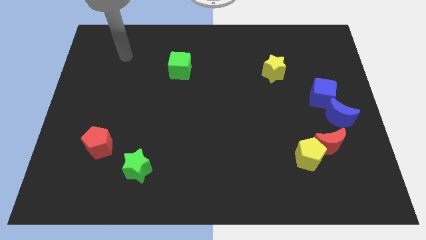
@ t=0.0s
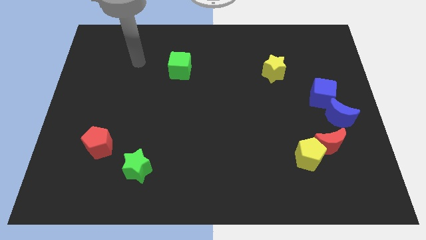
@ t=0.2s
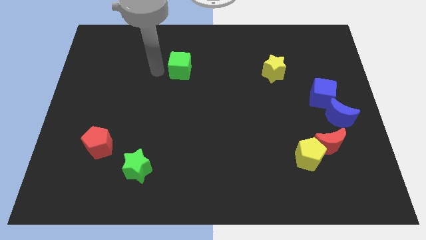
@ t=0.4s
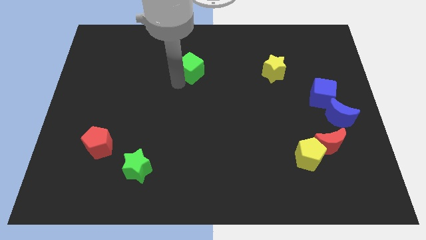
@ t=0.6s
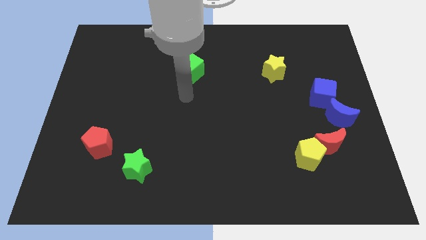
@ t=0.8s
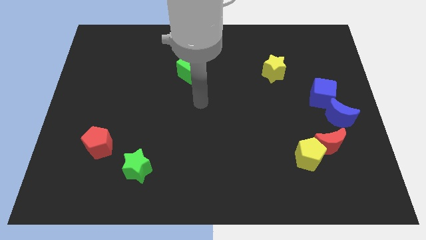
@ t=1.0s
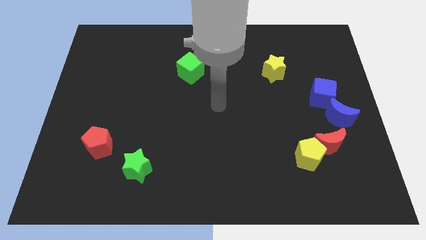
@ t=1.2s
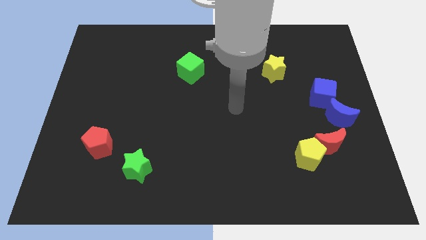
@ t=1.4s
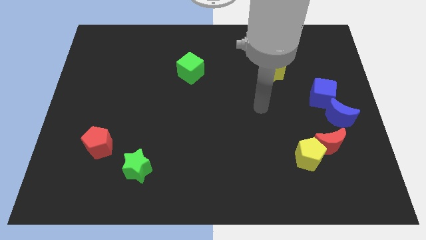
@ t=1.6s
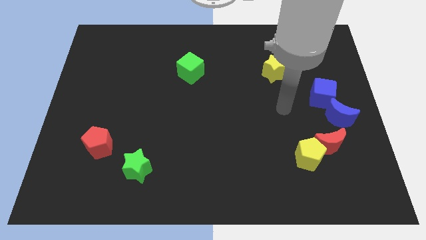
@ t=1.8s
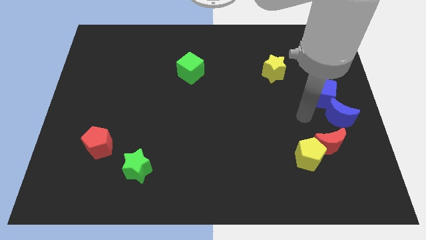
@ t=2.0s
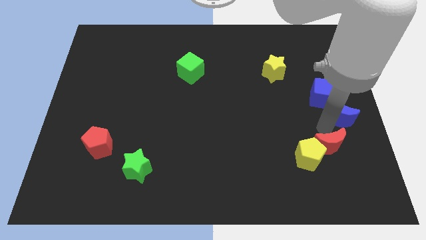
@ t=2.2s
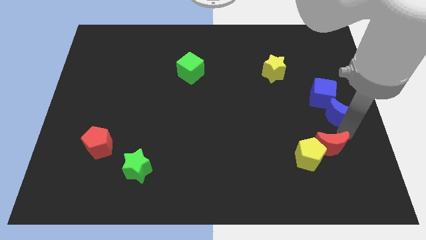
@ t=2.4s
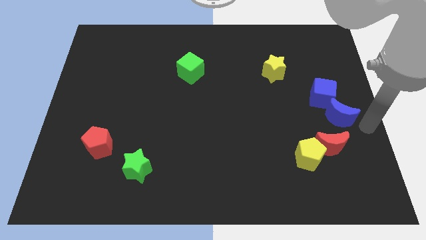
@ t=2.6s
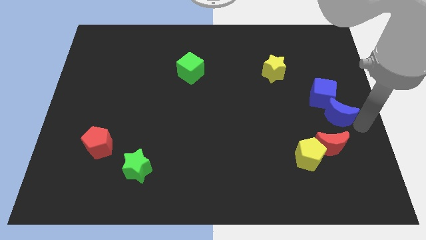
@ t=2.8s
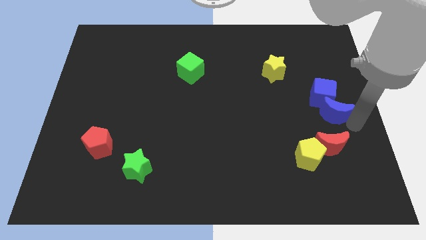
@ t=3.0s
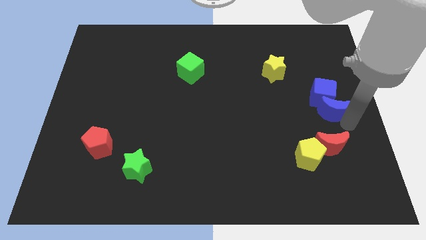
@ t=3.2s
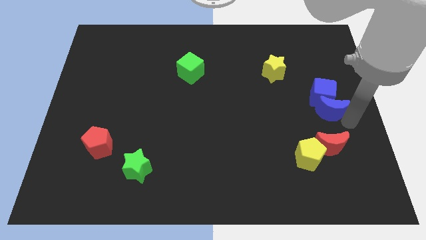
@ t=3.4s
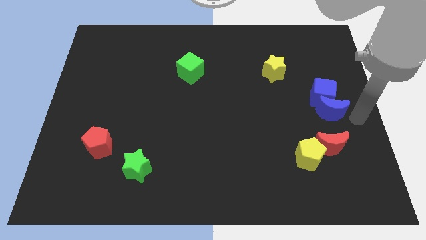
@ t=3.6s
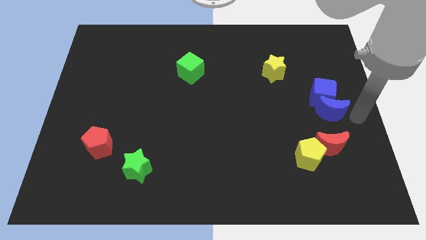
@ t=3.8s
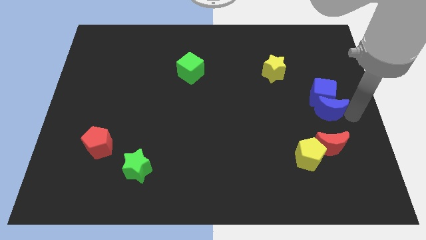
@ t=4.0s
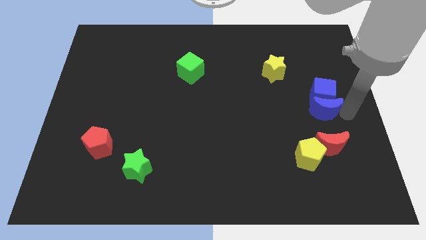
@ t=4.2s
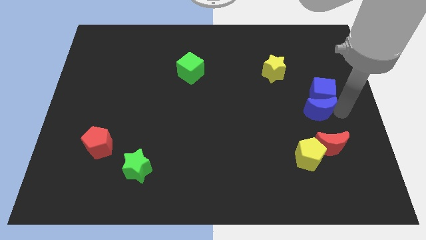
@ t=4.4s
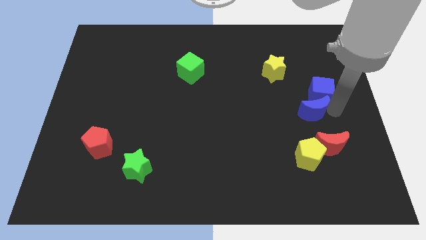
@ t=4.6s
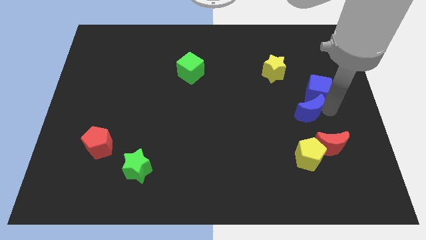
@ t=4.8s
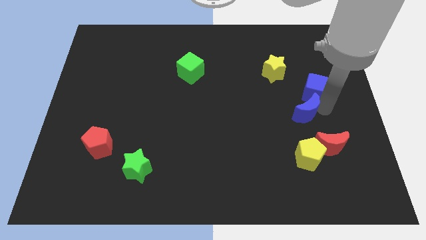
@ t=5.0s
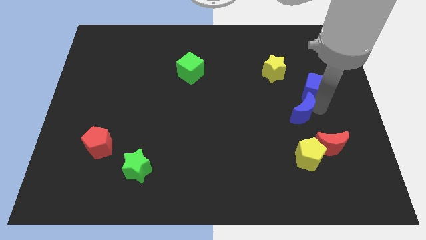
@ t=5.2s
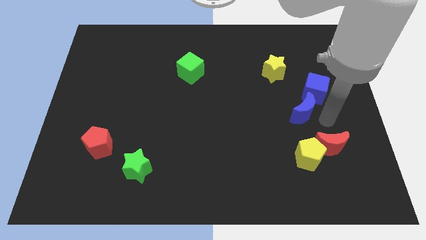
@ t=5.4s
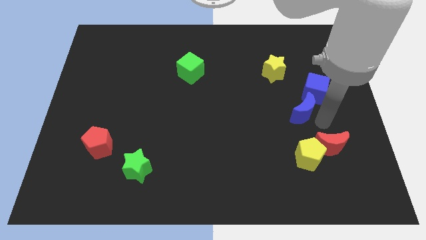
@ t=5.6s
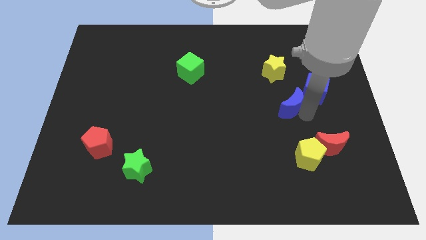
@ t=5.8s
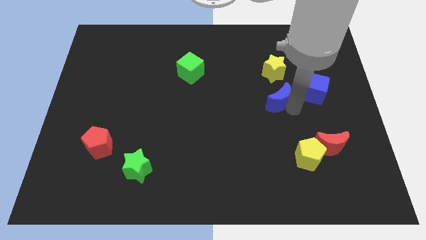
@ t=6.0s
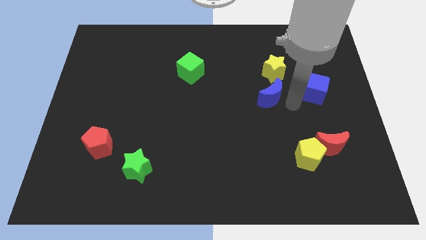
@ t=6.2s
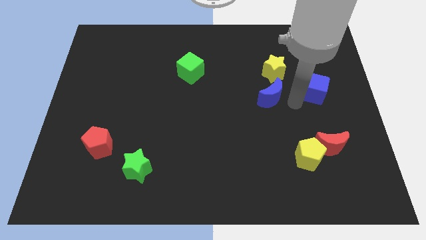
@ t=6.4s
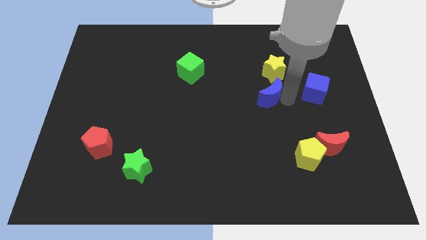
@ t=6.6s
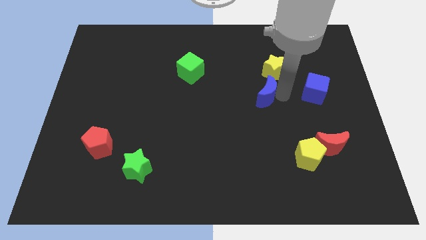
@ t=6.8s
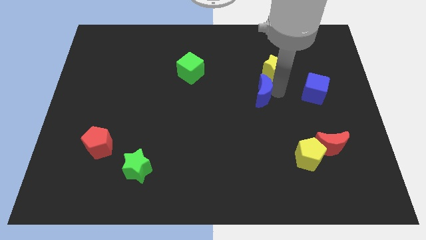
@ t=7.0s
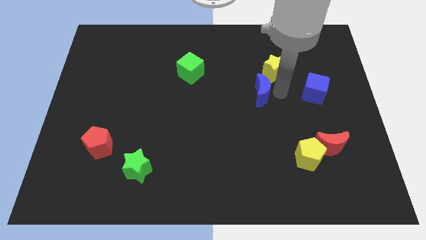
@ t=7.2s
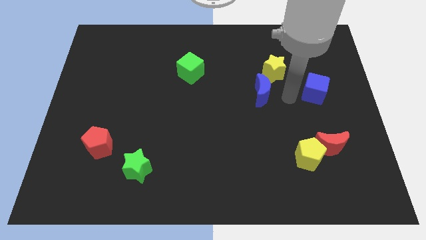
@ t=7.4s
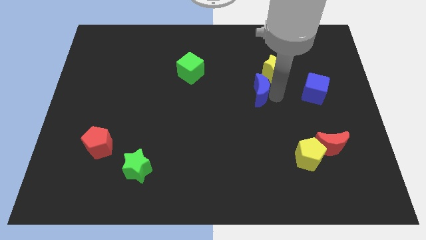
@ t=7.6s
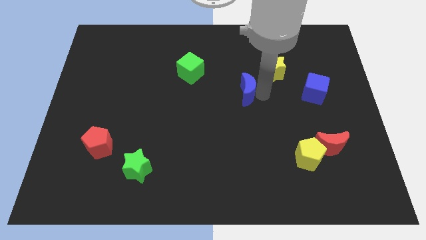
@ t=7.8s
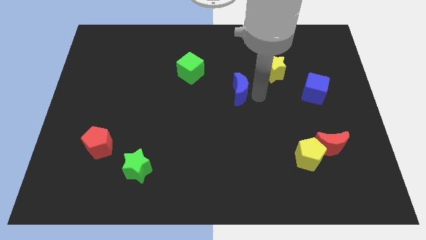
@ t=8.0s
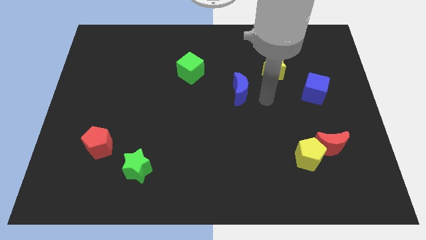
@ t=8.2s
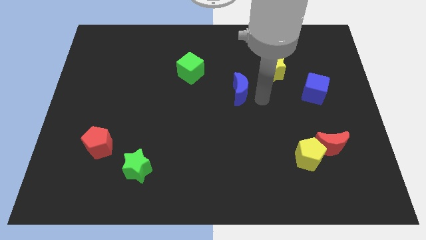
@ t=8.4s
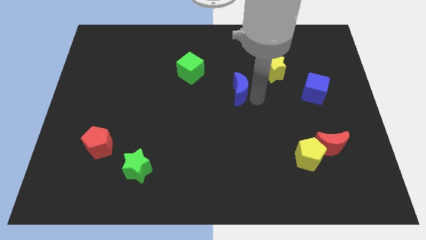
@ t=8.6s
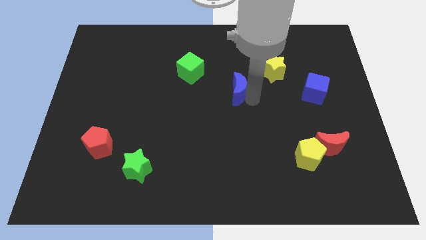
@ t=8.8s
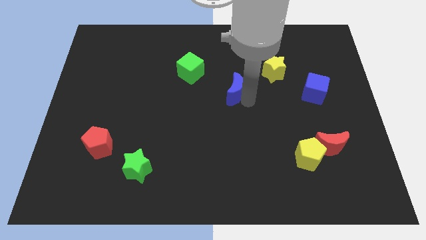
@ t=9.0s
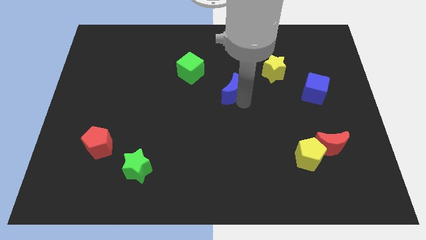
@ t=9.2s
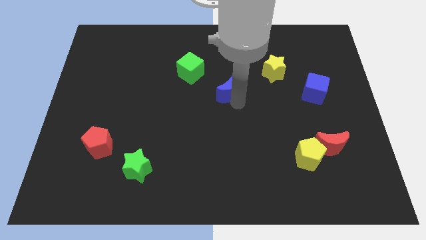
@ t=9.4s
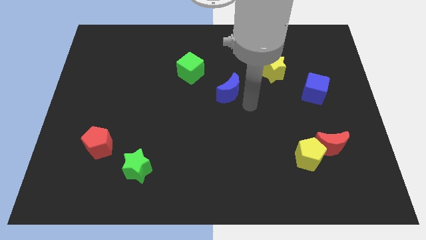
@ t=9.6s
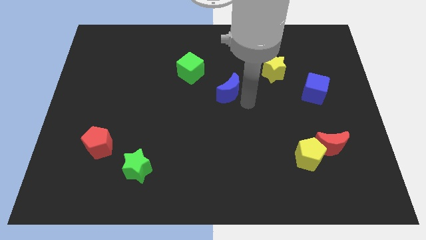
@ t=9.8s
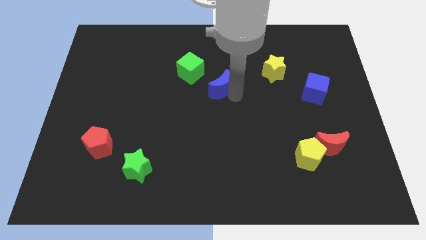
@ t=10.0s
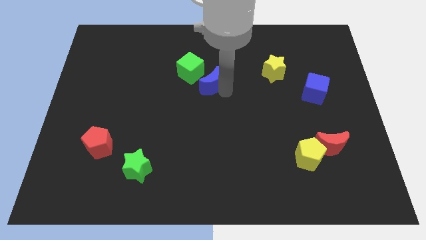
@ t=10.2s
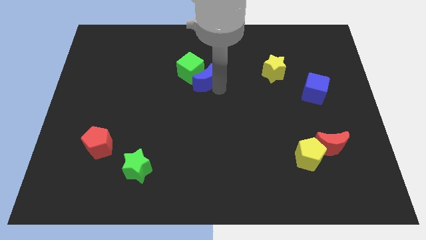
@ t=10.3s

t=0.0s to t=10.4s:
slide the blue moon towards the green cube

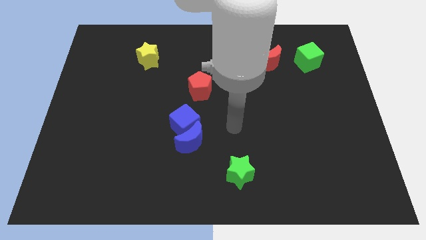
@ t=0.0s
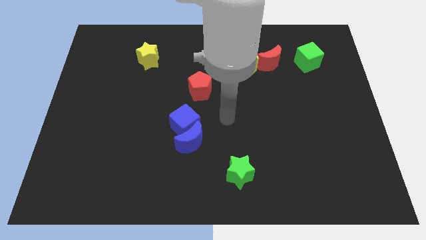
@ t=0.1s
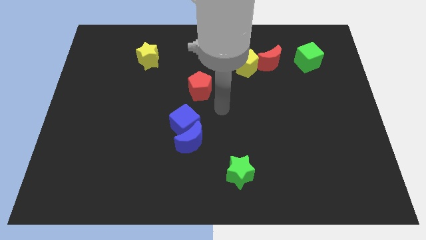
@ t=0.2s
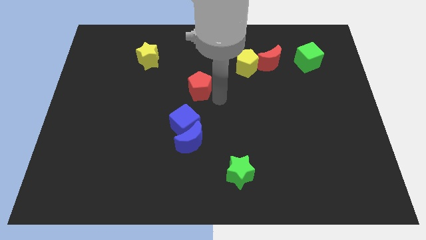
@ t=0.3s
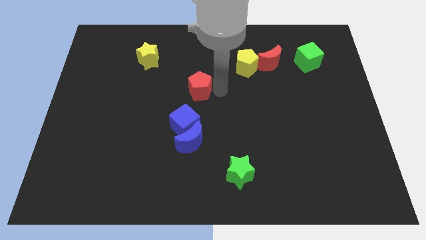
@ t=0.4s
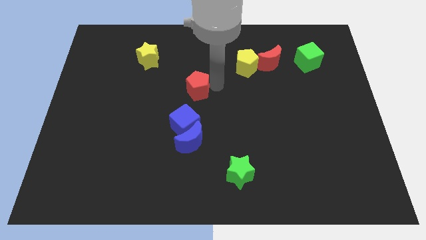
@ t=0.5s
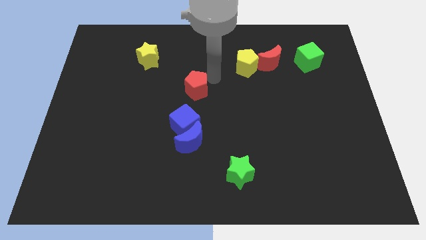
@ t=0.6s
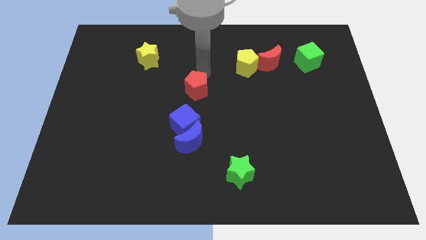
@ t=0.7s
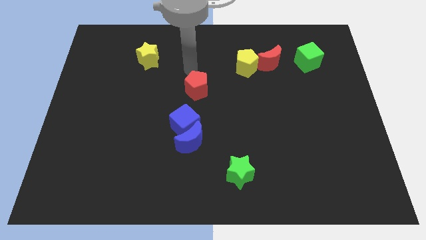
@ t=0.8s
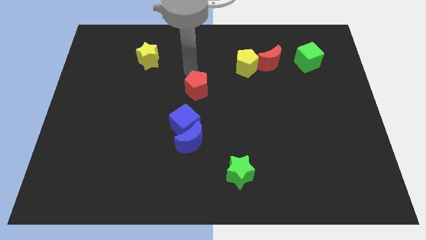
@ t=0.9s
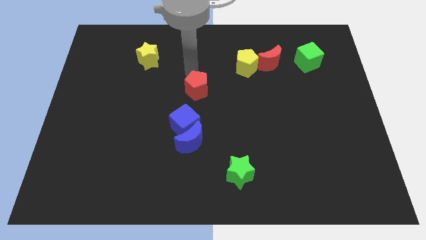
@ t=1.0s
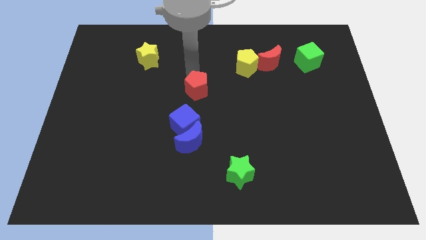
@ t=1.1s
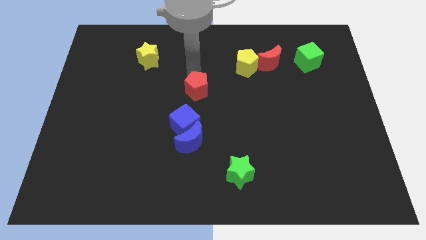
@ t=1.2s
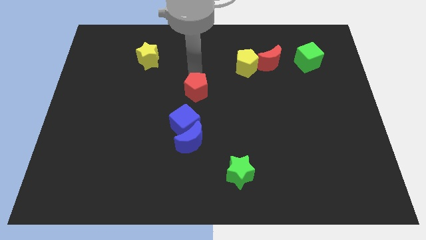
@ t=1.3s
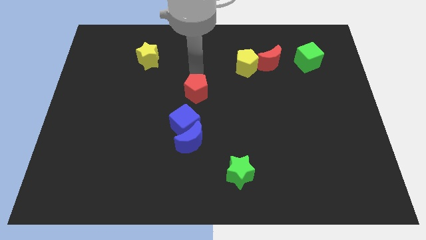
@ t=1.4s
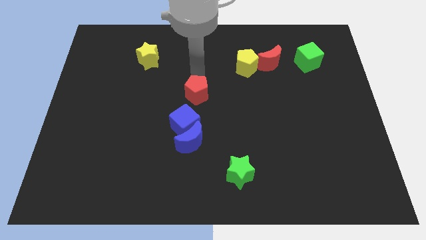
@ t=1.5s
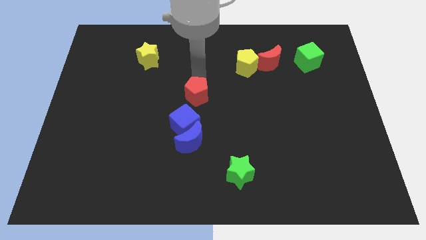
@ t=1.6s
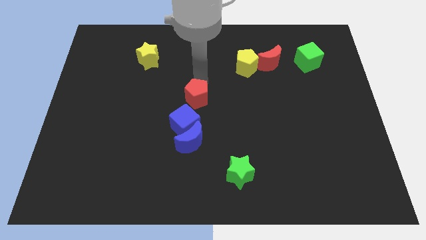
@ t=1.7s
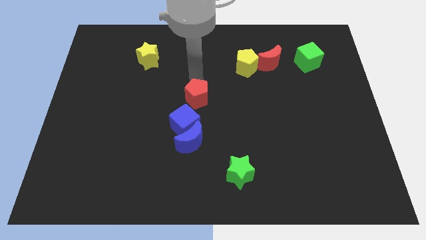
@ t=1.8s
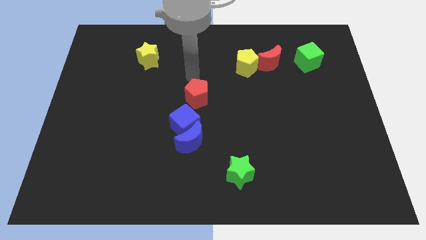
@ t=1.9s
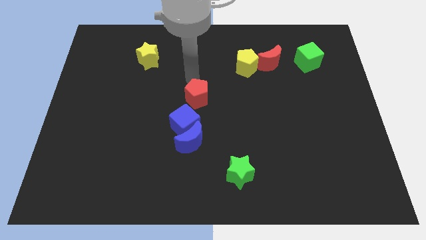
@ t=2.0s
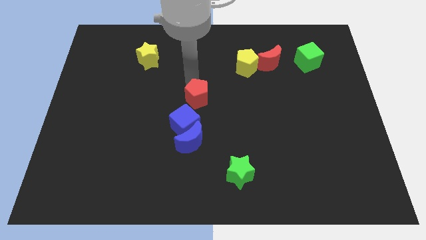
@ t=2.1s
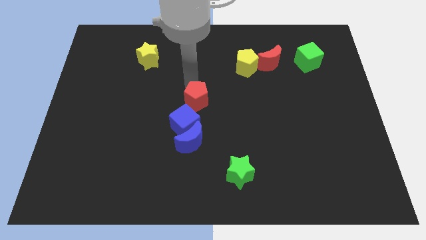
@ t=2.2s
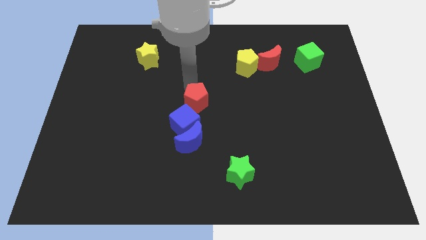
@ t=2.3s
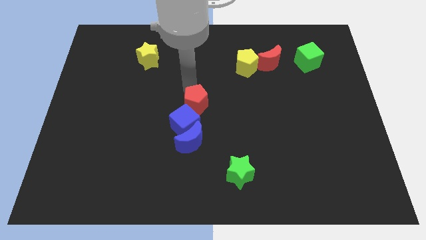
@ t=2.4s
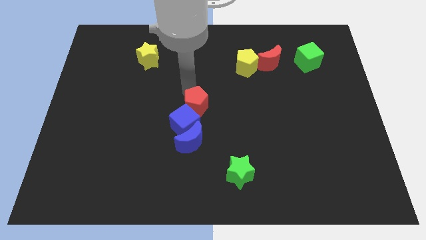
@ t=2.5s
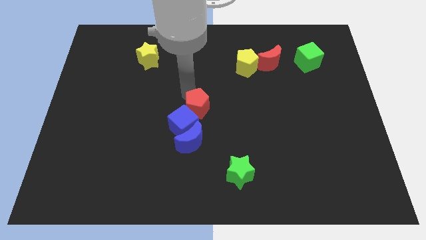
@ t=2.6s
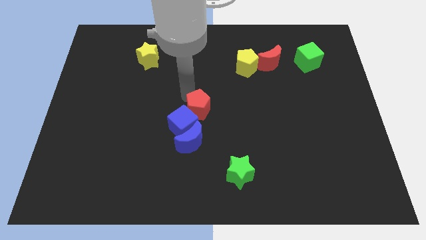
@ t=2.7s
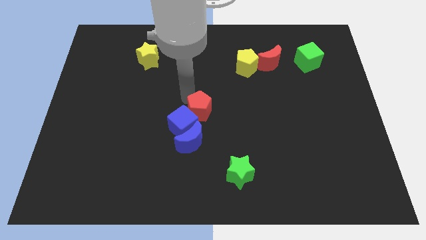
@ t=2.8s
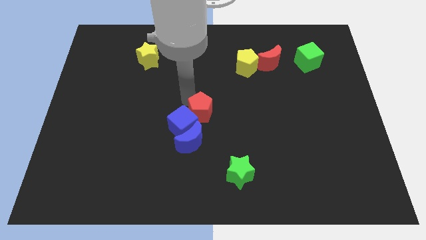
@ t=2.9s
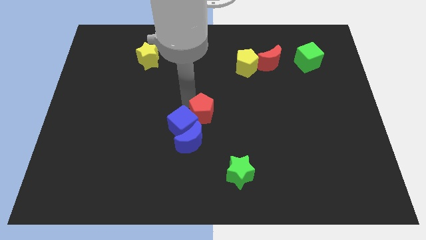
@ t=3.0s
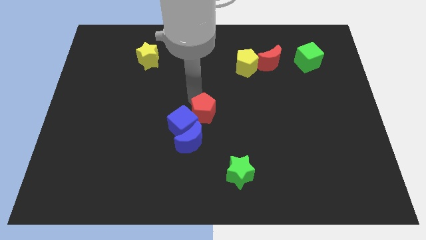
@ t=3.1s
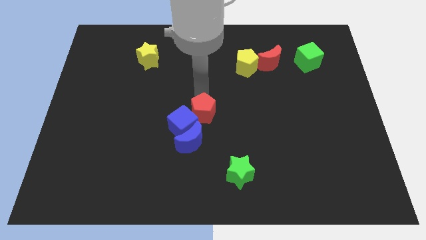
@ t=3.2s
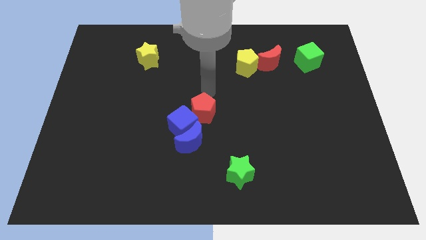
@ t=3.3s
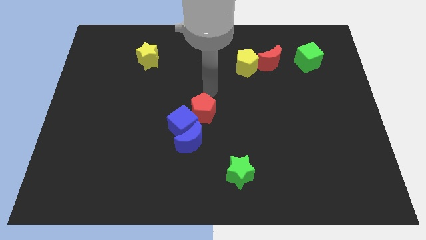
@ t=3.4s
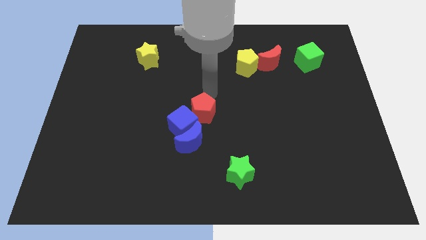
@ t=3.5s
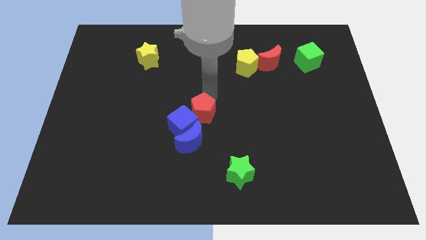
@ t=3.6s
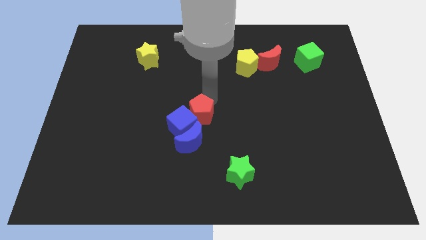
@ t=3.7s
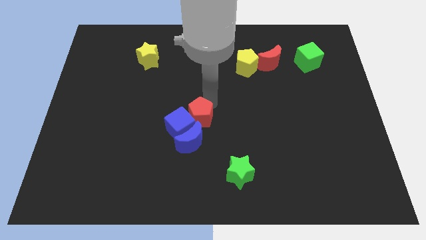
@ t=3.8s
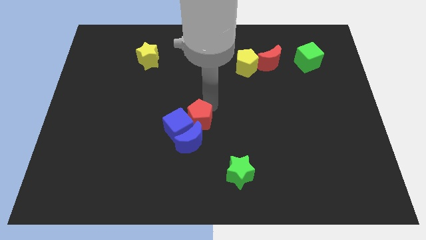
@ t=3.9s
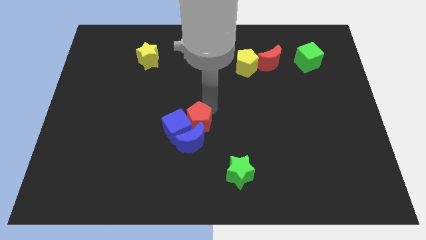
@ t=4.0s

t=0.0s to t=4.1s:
put the red pentagon close to the blue moon
